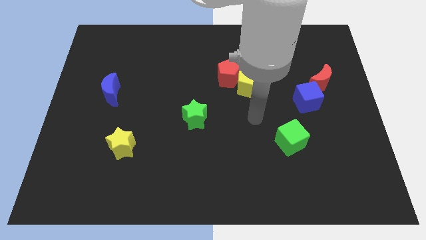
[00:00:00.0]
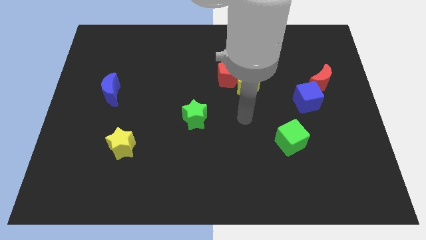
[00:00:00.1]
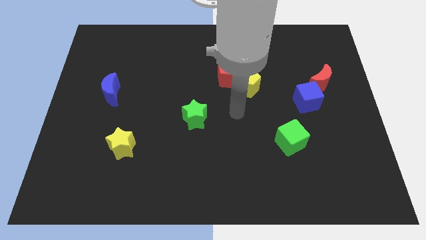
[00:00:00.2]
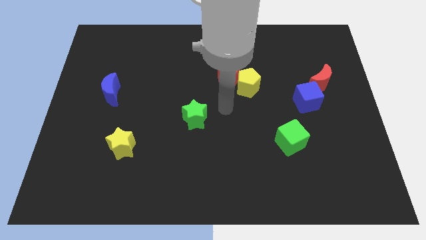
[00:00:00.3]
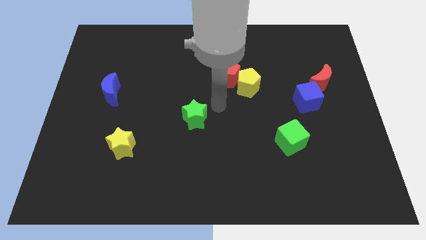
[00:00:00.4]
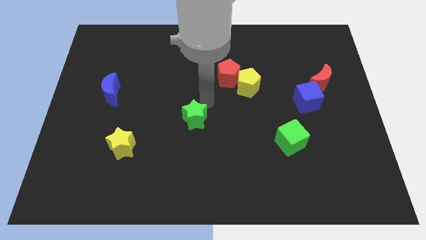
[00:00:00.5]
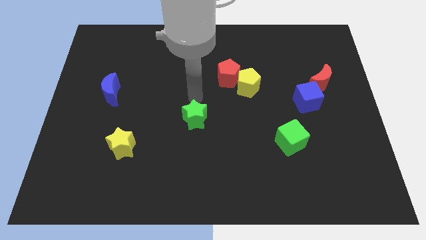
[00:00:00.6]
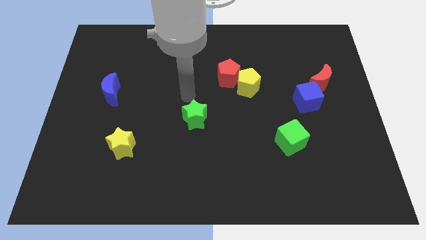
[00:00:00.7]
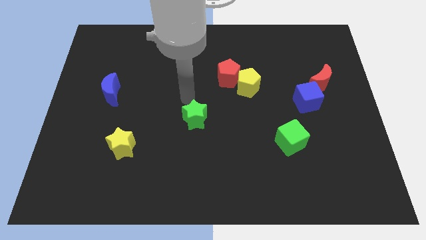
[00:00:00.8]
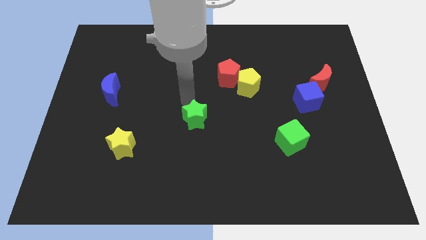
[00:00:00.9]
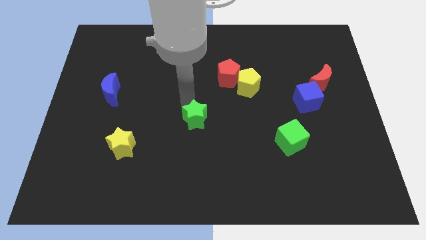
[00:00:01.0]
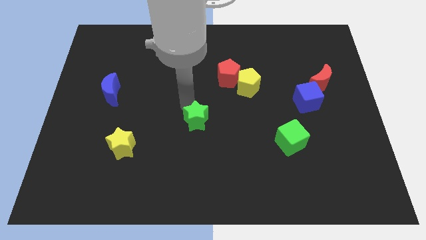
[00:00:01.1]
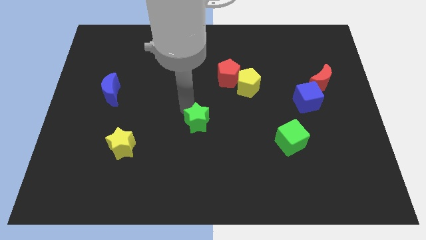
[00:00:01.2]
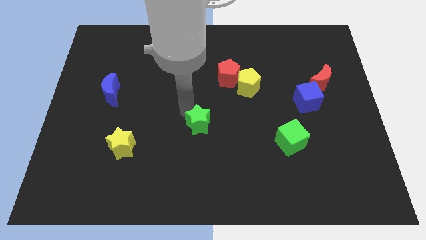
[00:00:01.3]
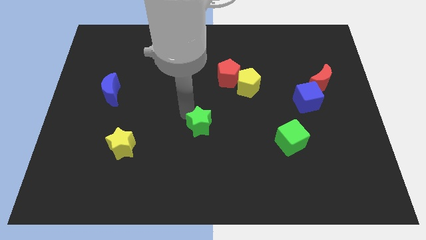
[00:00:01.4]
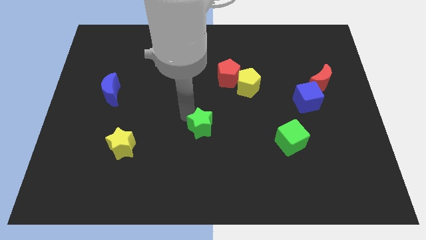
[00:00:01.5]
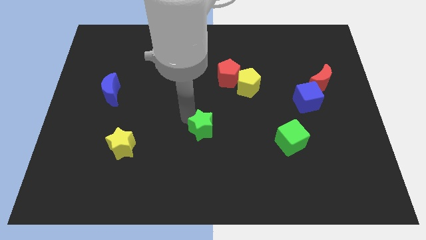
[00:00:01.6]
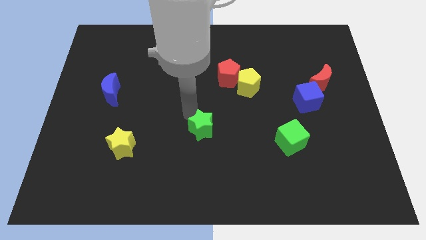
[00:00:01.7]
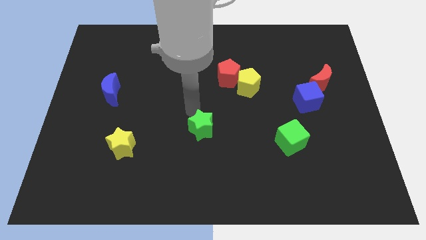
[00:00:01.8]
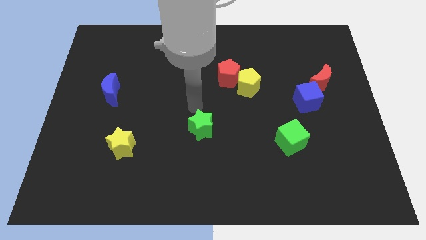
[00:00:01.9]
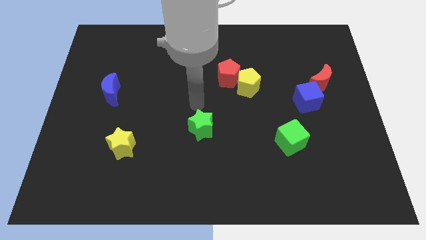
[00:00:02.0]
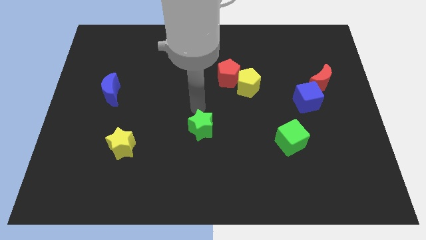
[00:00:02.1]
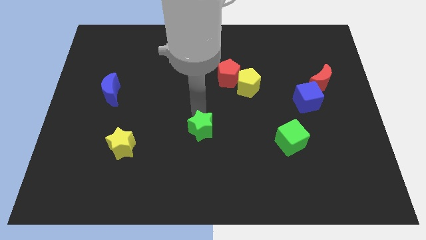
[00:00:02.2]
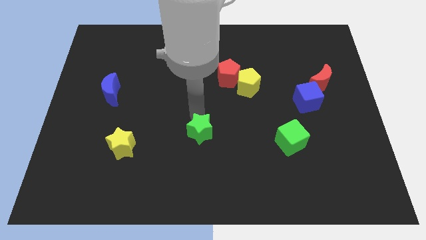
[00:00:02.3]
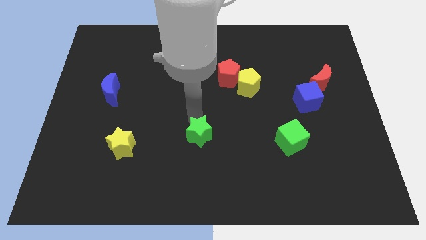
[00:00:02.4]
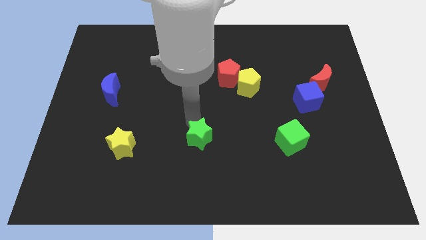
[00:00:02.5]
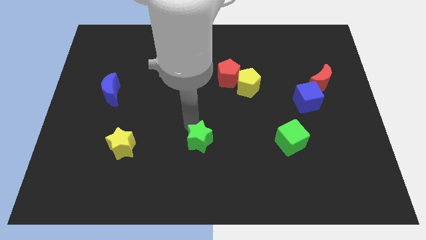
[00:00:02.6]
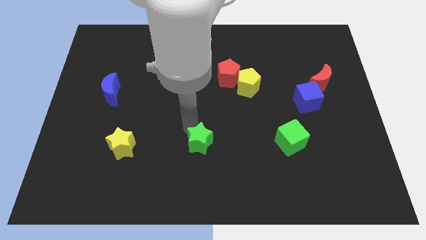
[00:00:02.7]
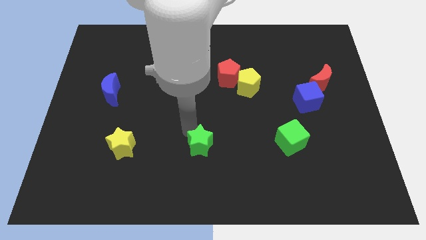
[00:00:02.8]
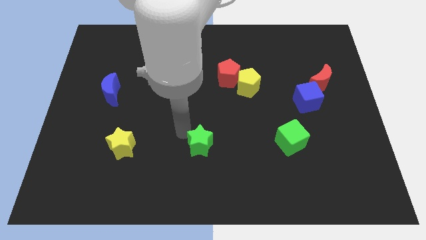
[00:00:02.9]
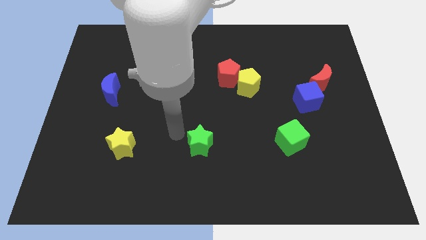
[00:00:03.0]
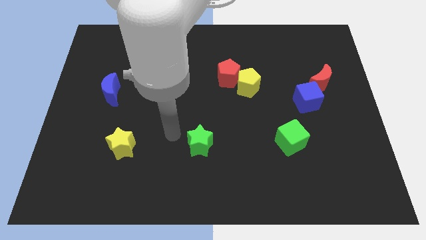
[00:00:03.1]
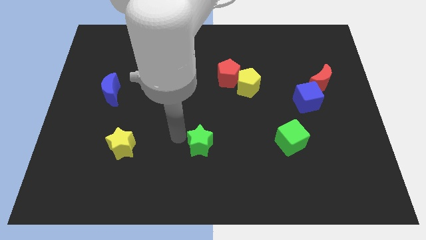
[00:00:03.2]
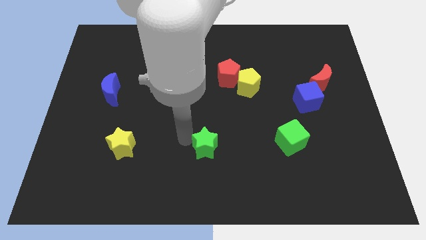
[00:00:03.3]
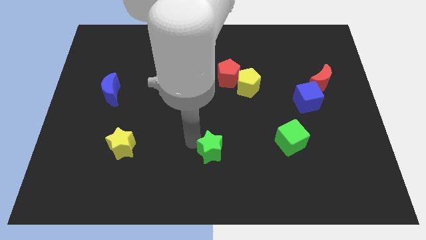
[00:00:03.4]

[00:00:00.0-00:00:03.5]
push the green star slightly downwards and then right

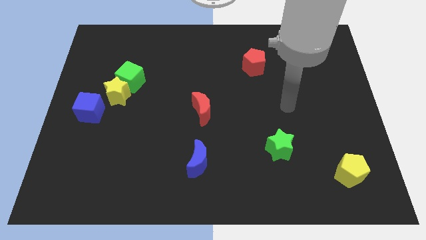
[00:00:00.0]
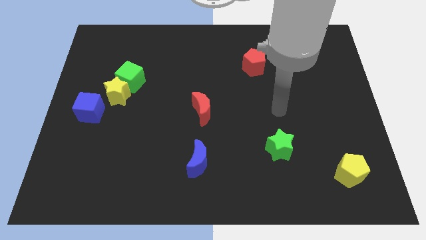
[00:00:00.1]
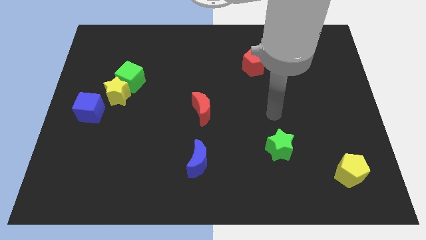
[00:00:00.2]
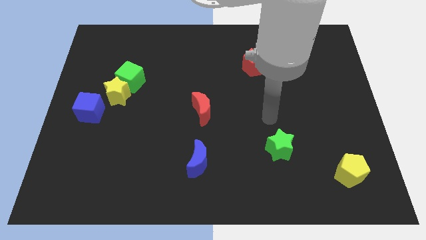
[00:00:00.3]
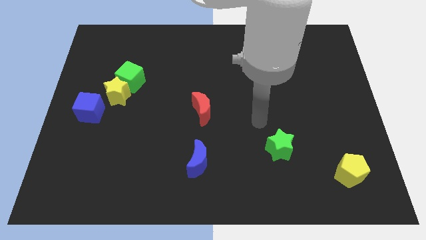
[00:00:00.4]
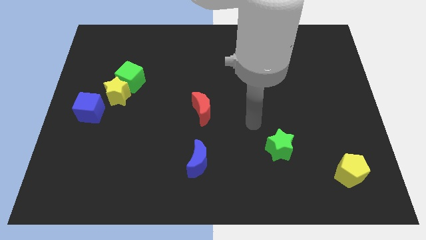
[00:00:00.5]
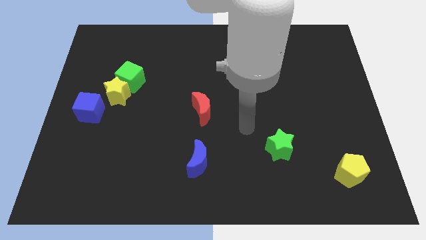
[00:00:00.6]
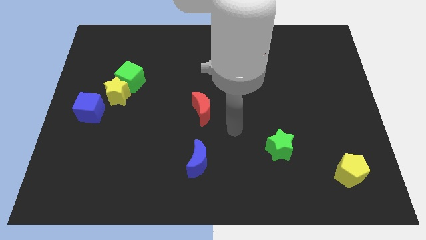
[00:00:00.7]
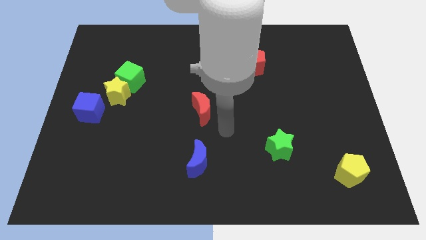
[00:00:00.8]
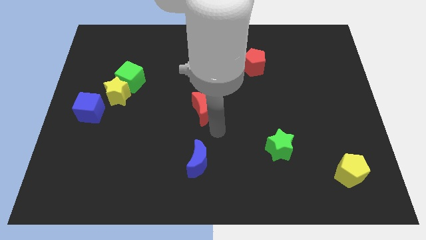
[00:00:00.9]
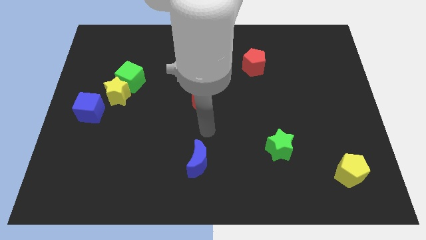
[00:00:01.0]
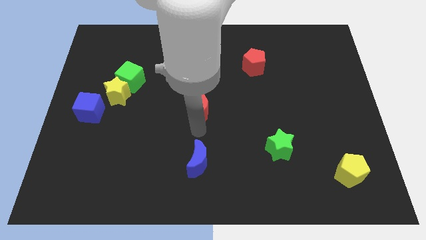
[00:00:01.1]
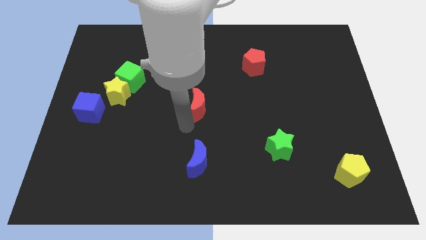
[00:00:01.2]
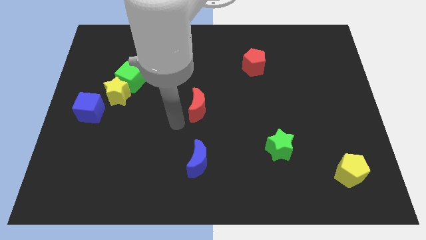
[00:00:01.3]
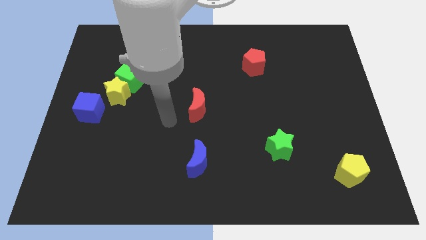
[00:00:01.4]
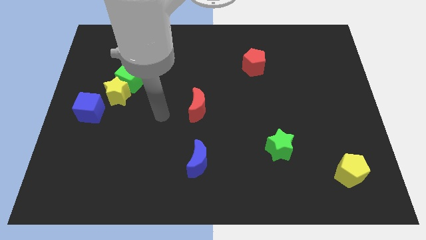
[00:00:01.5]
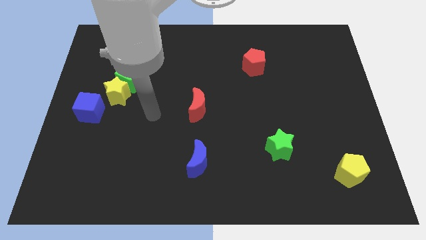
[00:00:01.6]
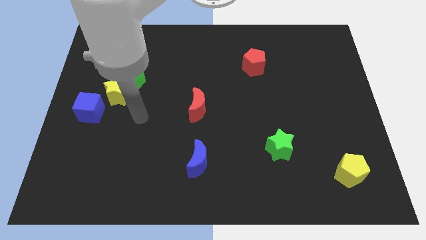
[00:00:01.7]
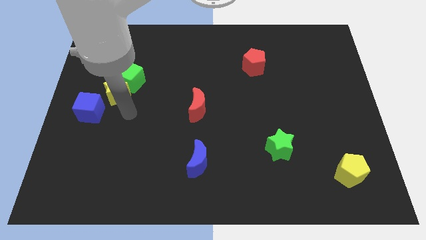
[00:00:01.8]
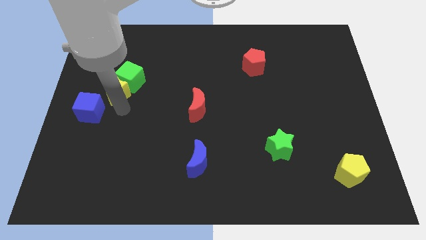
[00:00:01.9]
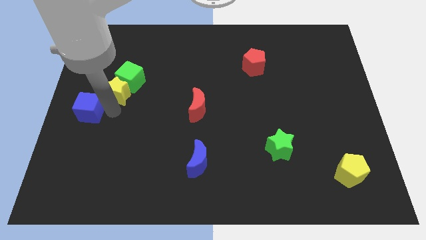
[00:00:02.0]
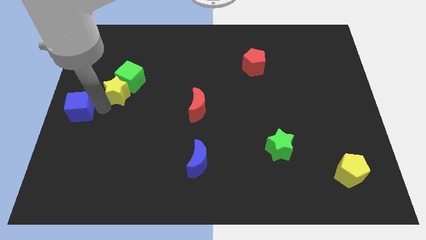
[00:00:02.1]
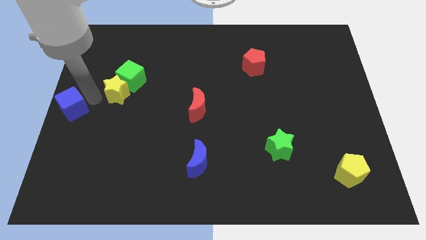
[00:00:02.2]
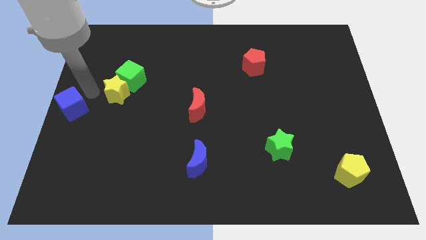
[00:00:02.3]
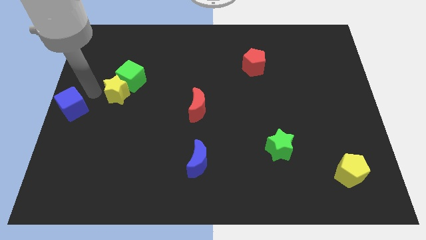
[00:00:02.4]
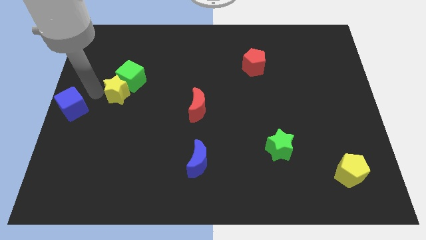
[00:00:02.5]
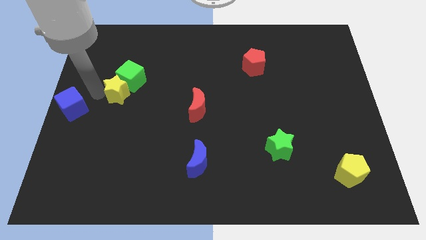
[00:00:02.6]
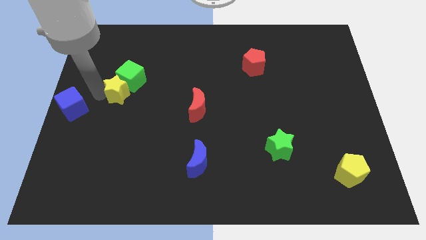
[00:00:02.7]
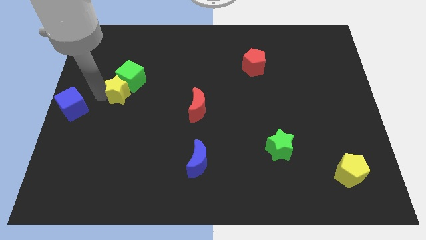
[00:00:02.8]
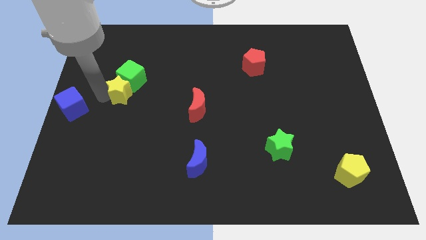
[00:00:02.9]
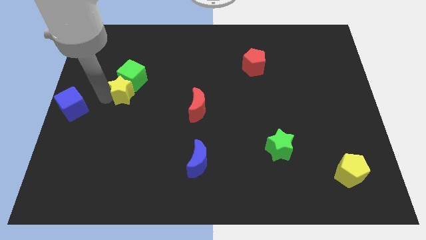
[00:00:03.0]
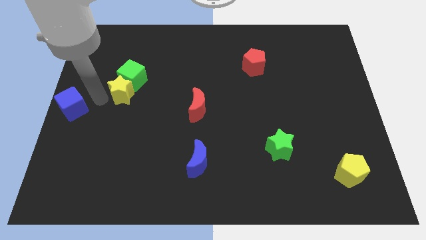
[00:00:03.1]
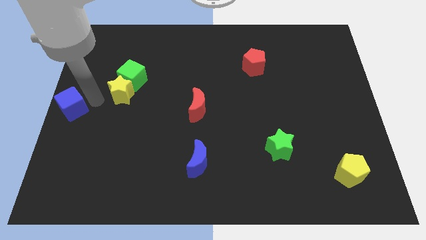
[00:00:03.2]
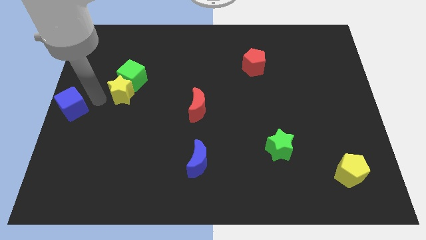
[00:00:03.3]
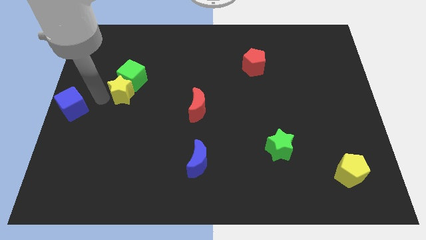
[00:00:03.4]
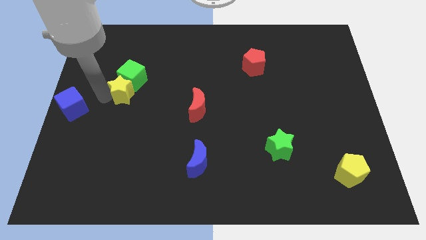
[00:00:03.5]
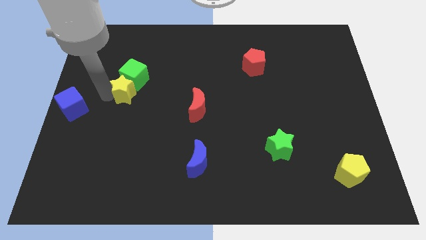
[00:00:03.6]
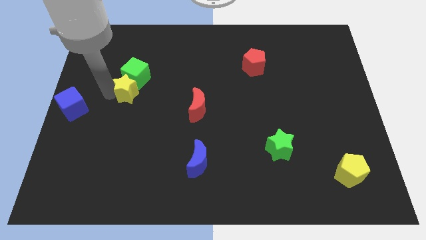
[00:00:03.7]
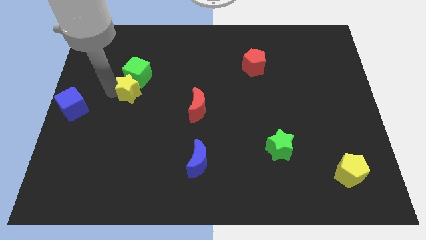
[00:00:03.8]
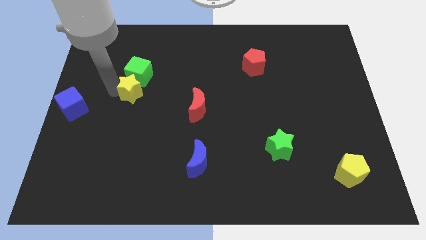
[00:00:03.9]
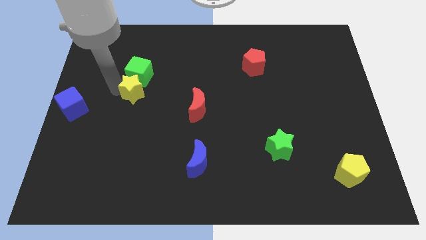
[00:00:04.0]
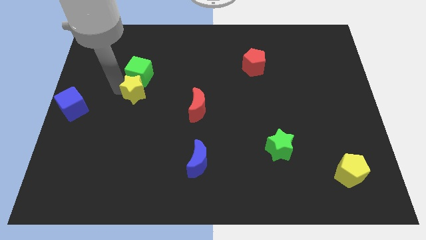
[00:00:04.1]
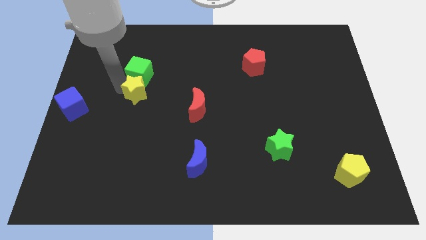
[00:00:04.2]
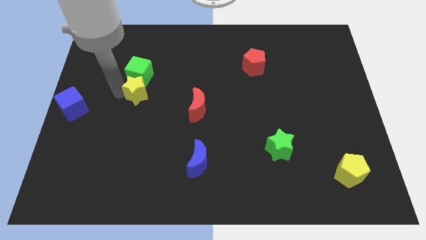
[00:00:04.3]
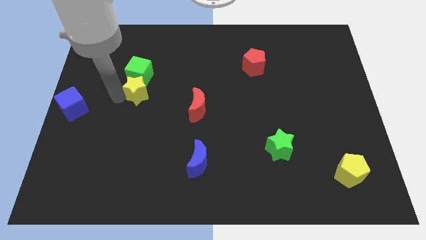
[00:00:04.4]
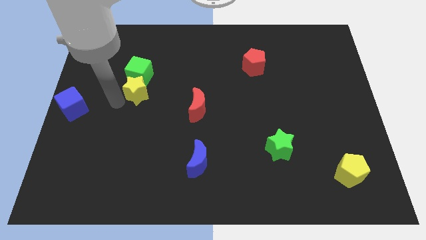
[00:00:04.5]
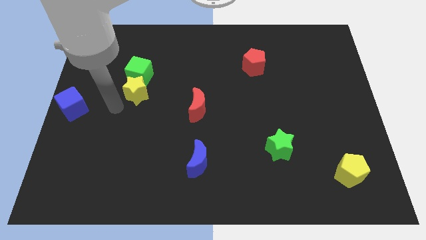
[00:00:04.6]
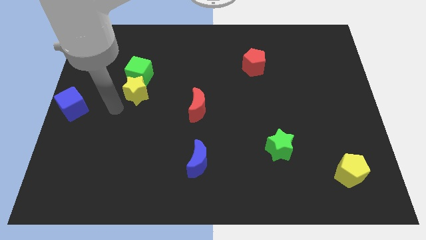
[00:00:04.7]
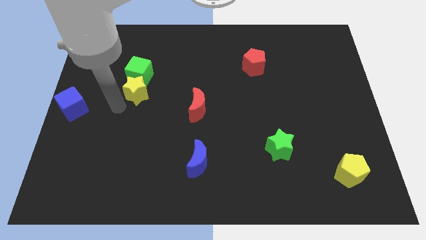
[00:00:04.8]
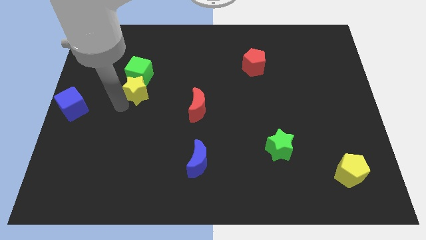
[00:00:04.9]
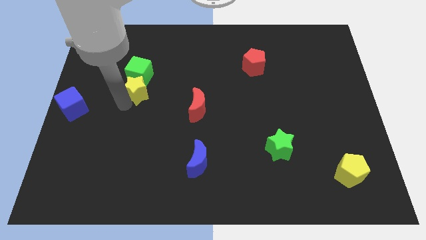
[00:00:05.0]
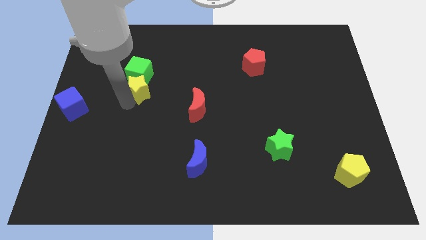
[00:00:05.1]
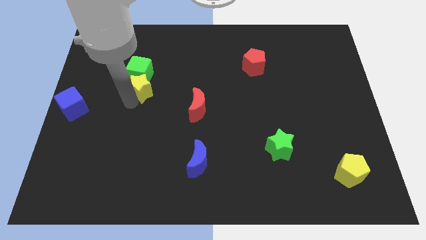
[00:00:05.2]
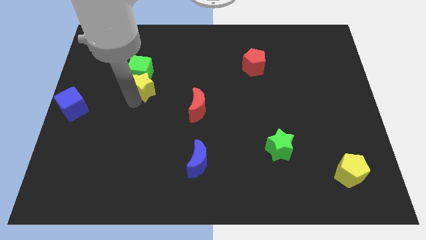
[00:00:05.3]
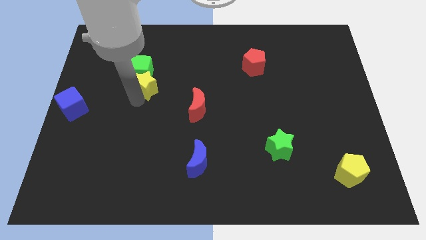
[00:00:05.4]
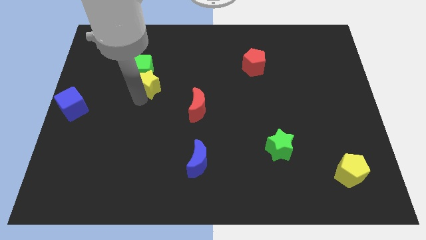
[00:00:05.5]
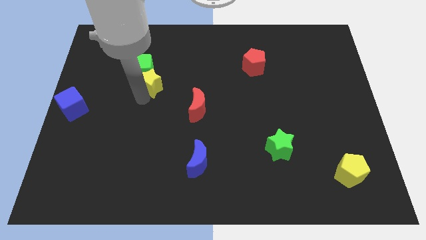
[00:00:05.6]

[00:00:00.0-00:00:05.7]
slightly slide the yellow star up and then to the right
